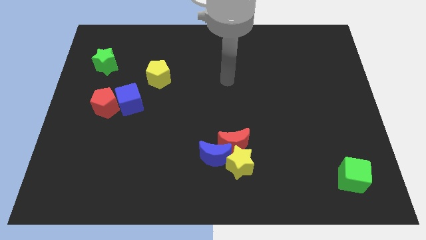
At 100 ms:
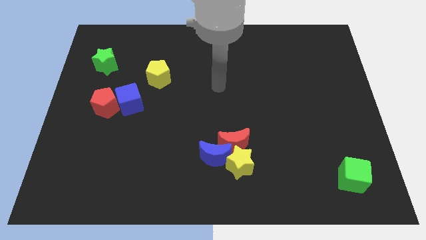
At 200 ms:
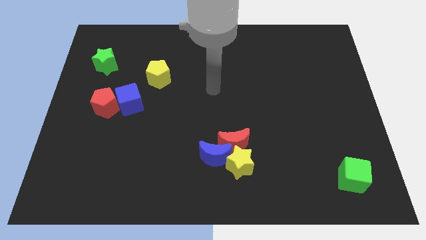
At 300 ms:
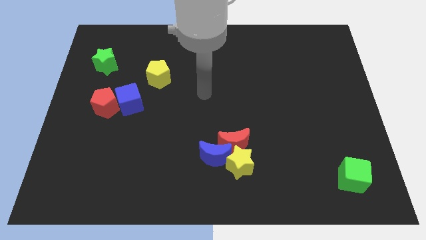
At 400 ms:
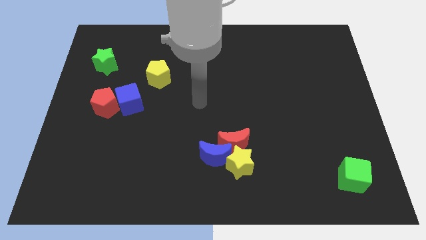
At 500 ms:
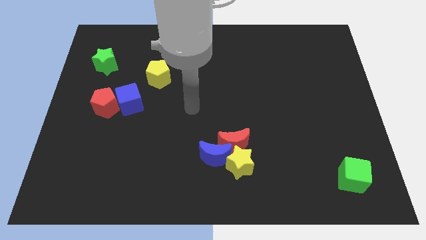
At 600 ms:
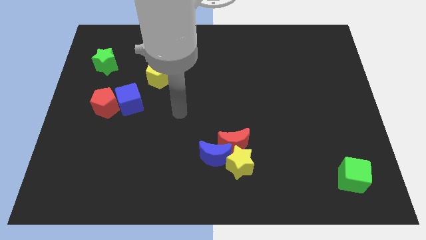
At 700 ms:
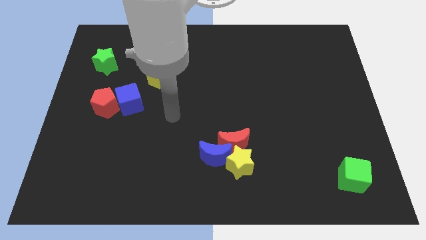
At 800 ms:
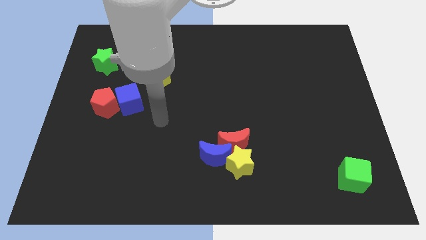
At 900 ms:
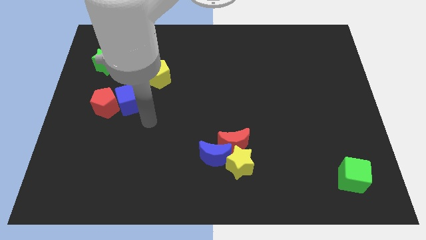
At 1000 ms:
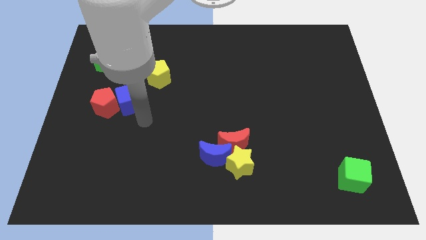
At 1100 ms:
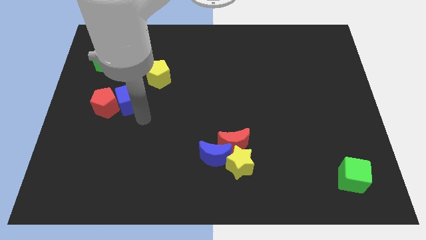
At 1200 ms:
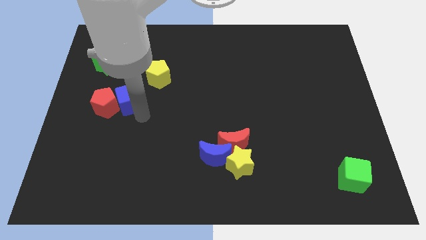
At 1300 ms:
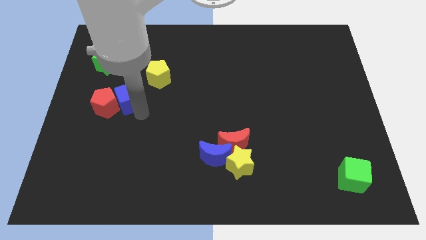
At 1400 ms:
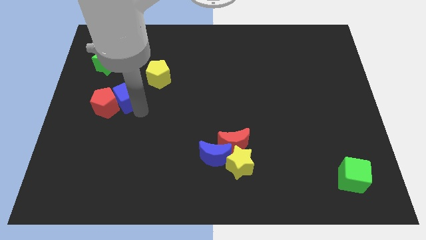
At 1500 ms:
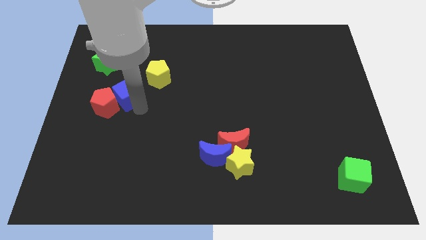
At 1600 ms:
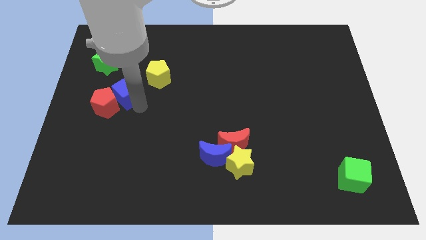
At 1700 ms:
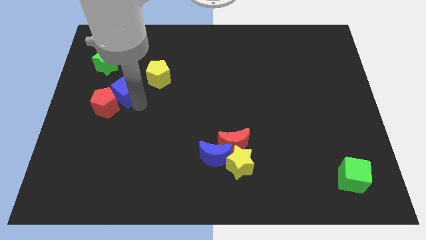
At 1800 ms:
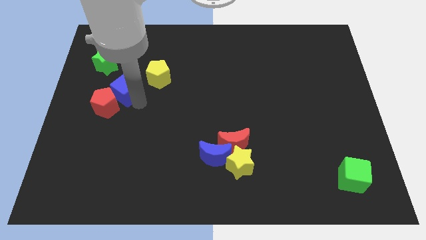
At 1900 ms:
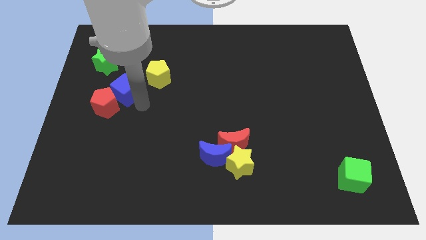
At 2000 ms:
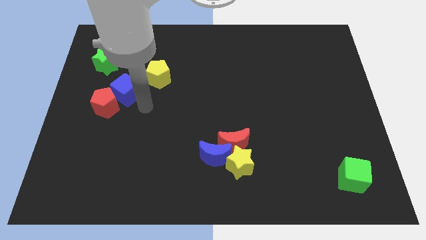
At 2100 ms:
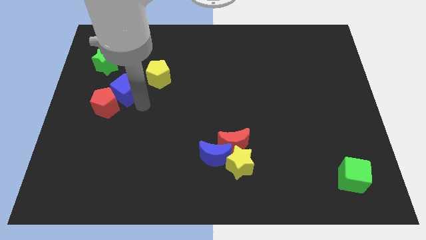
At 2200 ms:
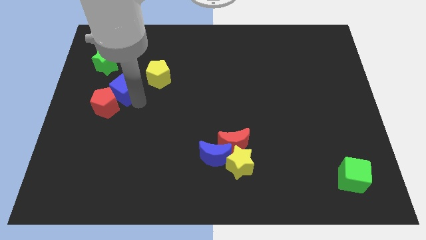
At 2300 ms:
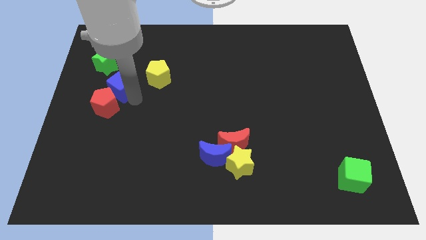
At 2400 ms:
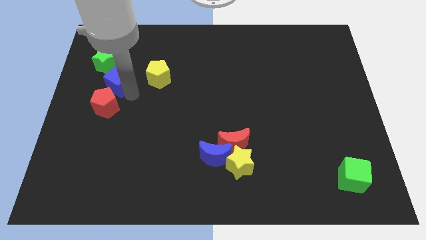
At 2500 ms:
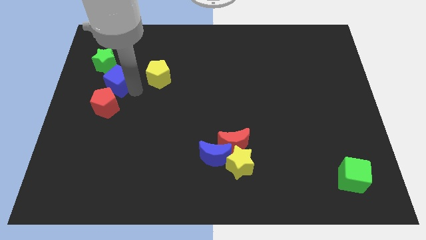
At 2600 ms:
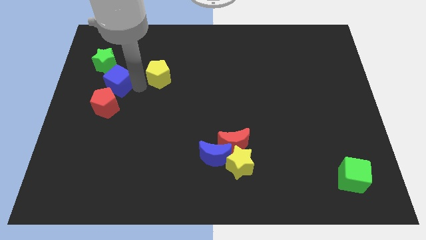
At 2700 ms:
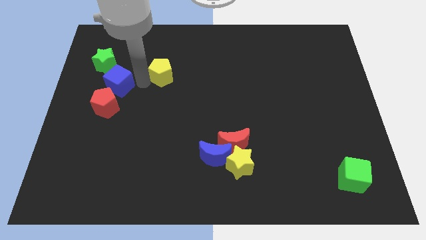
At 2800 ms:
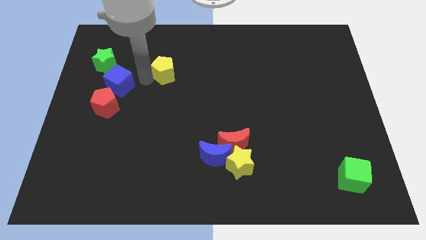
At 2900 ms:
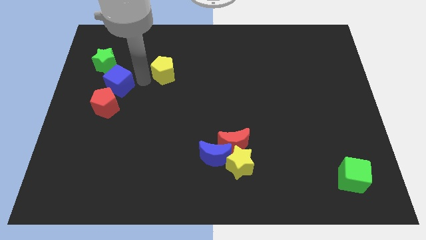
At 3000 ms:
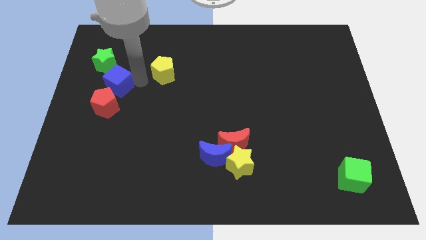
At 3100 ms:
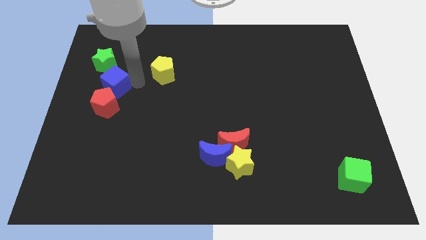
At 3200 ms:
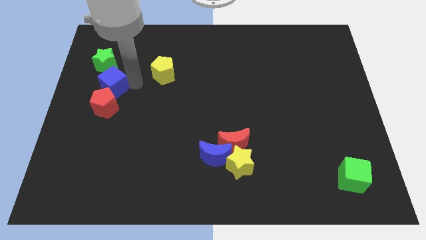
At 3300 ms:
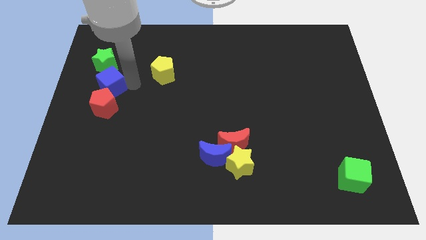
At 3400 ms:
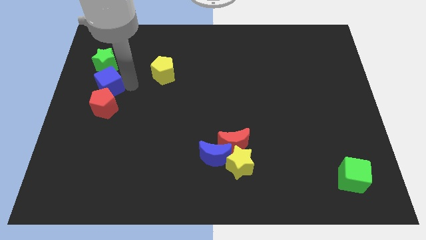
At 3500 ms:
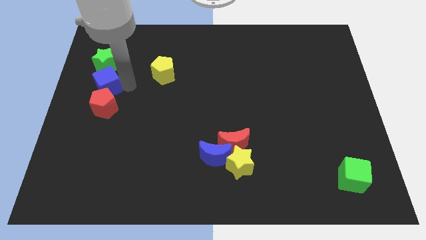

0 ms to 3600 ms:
slide the blue cube to the left side

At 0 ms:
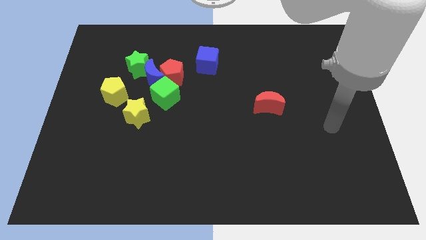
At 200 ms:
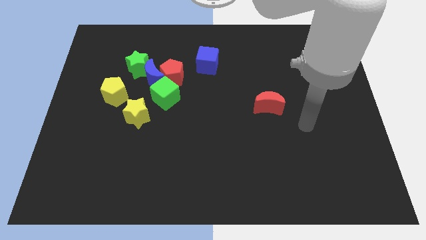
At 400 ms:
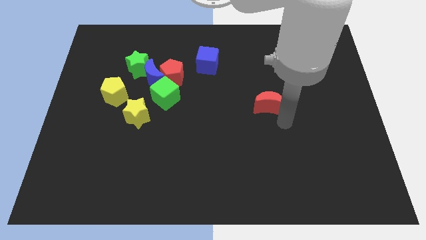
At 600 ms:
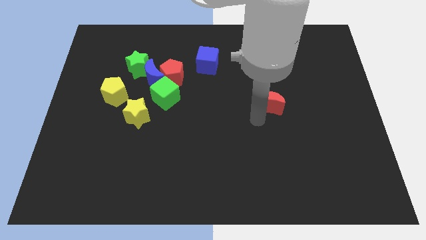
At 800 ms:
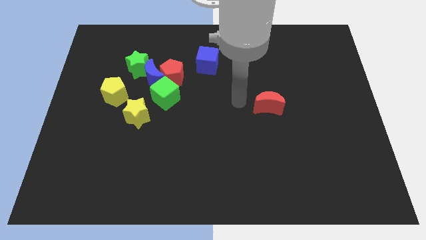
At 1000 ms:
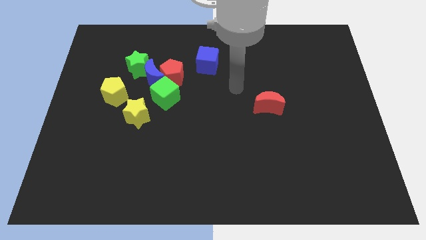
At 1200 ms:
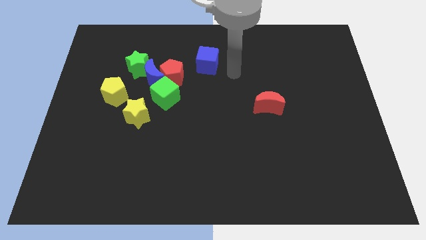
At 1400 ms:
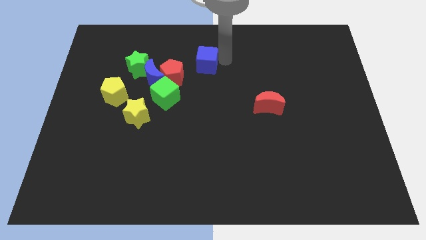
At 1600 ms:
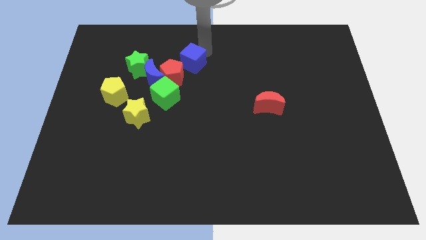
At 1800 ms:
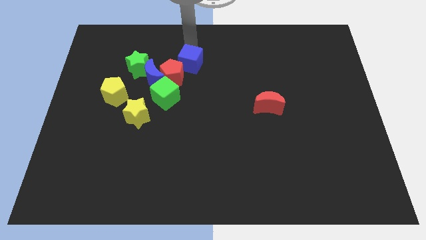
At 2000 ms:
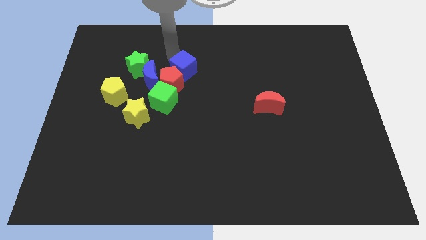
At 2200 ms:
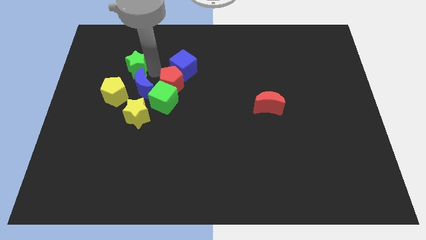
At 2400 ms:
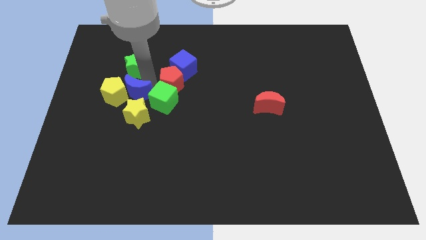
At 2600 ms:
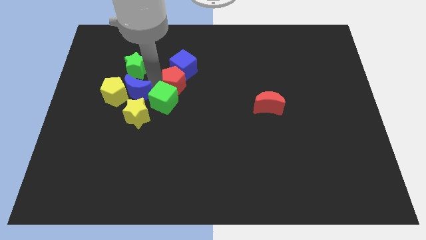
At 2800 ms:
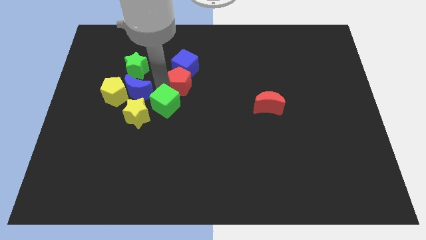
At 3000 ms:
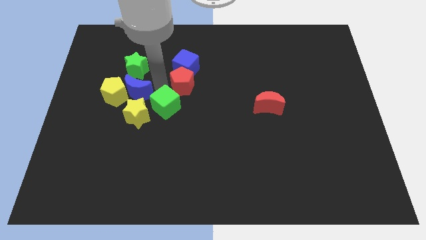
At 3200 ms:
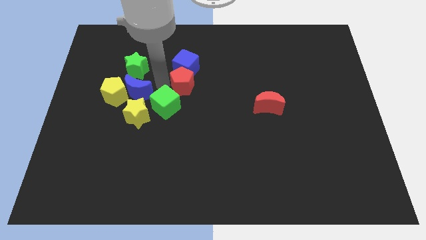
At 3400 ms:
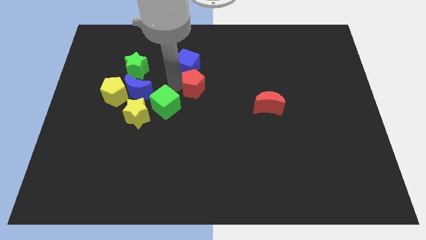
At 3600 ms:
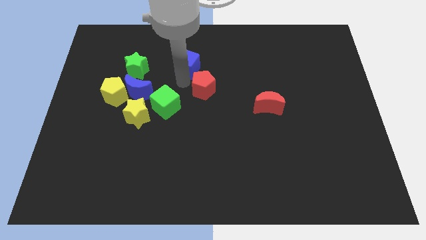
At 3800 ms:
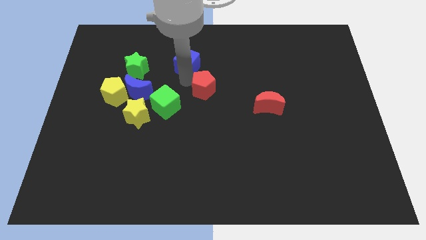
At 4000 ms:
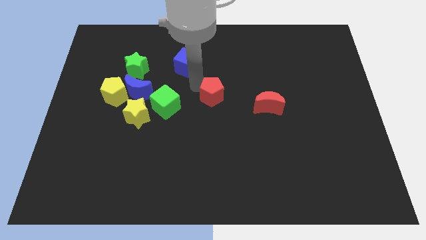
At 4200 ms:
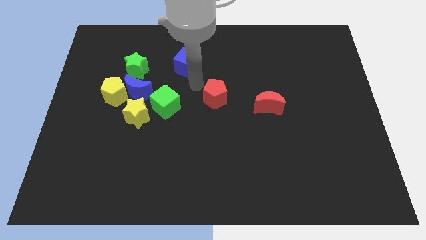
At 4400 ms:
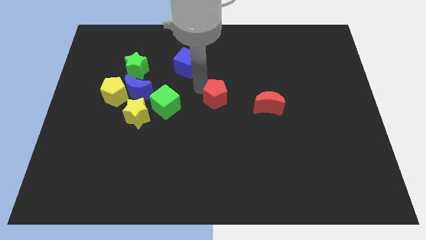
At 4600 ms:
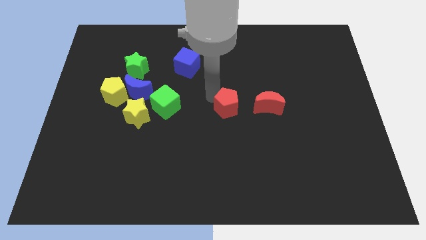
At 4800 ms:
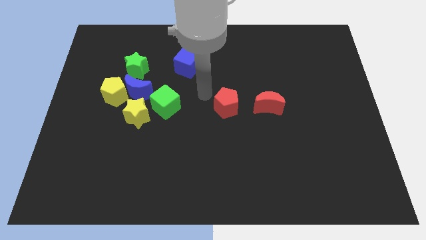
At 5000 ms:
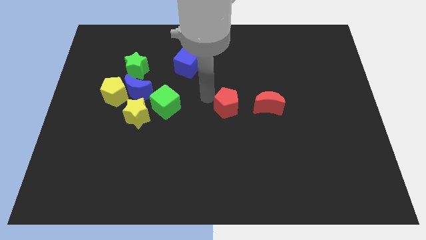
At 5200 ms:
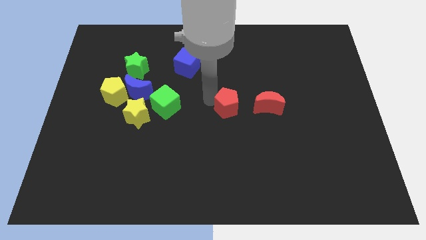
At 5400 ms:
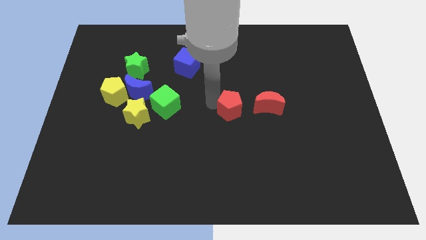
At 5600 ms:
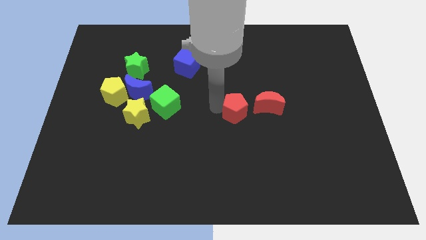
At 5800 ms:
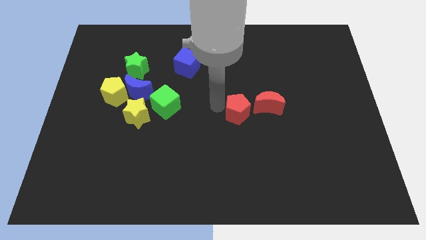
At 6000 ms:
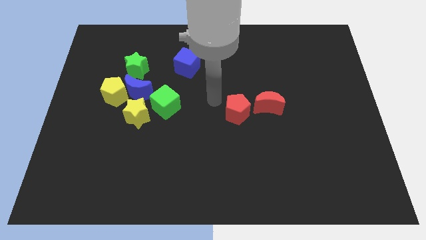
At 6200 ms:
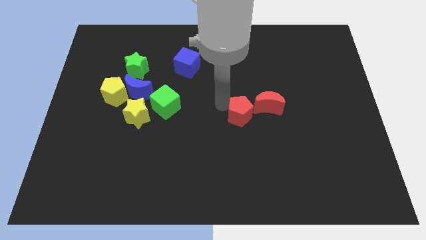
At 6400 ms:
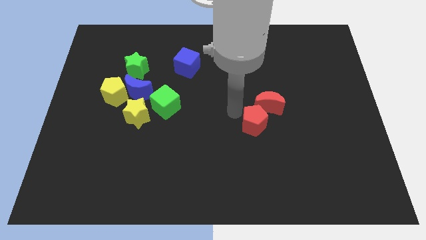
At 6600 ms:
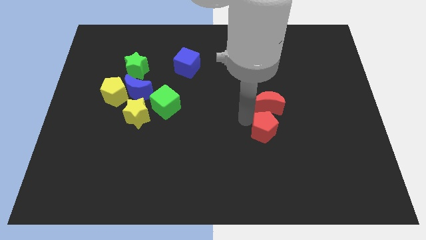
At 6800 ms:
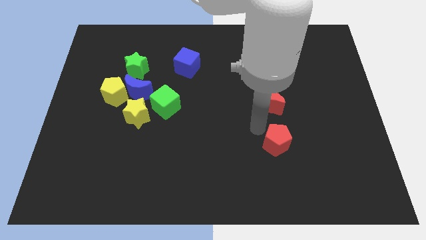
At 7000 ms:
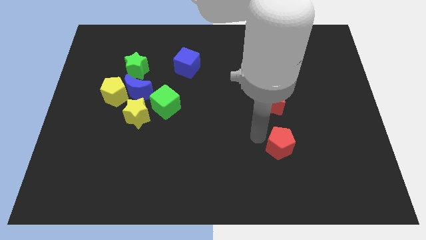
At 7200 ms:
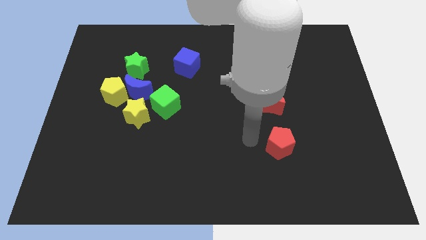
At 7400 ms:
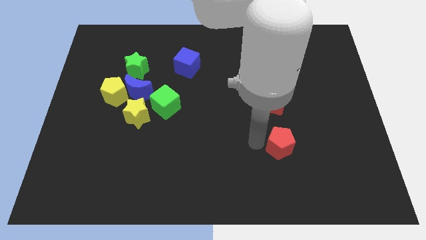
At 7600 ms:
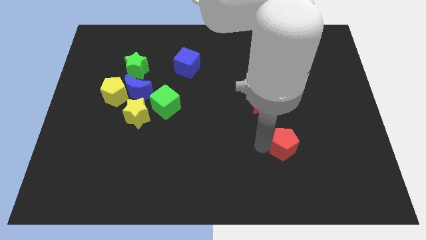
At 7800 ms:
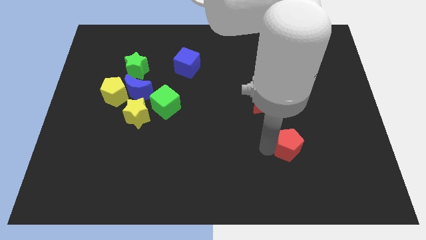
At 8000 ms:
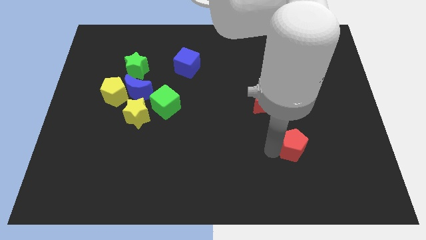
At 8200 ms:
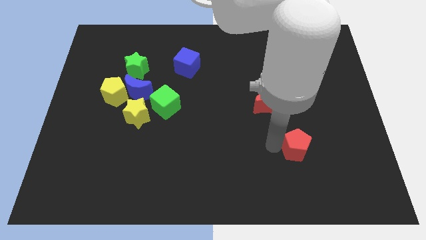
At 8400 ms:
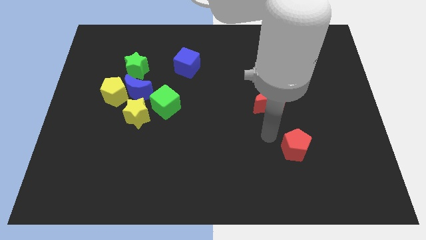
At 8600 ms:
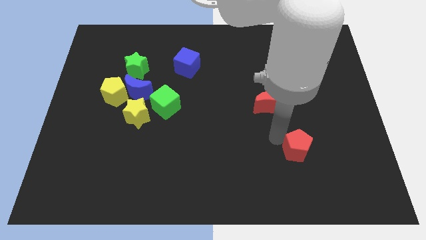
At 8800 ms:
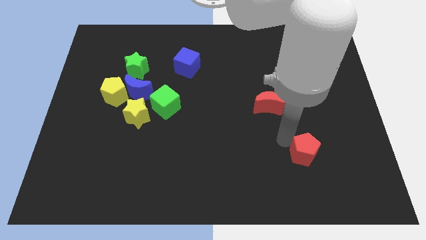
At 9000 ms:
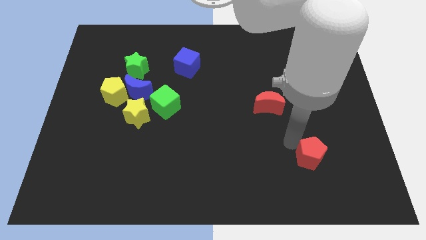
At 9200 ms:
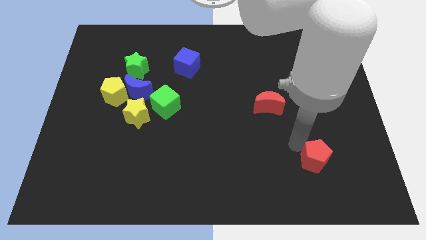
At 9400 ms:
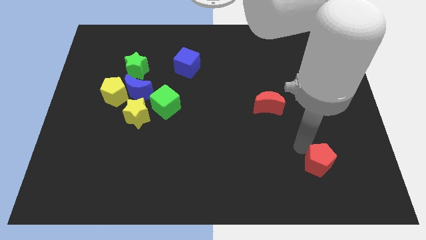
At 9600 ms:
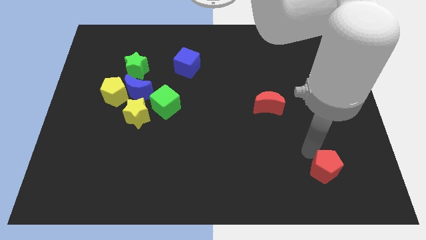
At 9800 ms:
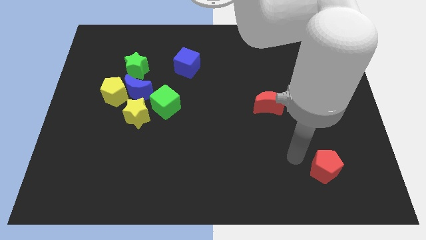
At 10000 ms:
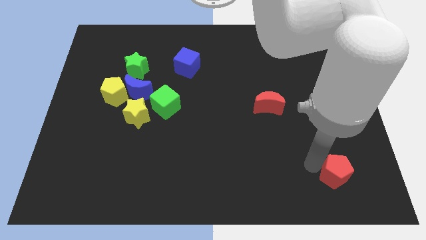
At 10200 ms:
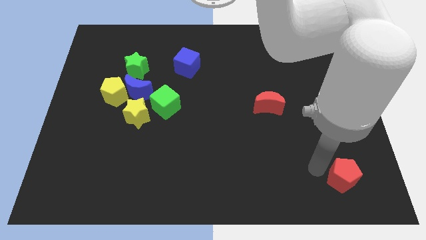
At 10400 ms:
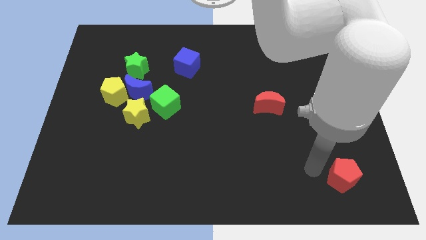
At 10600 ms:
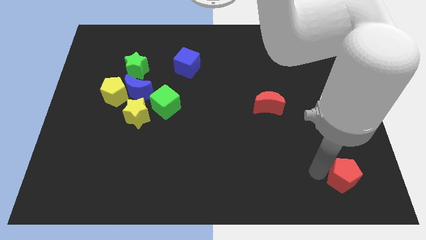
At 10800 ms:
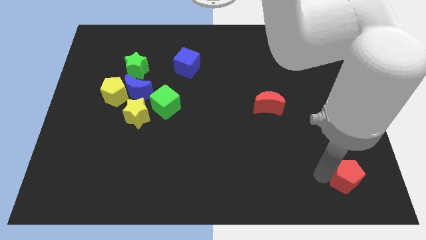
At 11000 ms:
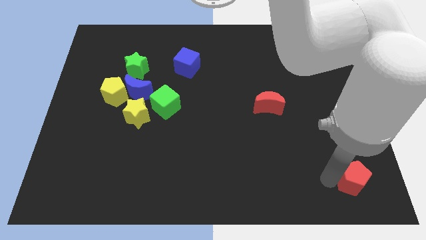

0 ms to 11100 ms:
slide the red pentagon to the bottom right corner
